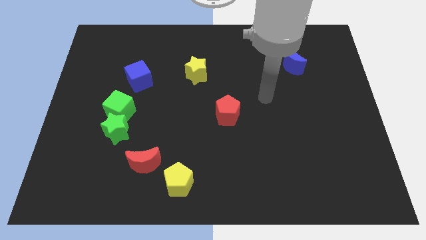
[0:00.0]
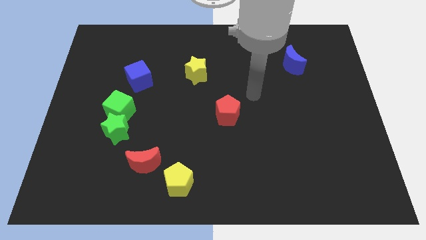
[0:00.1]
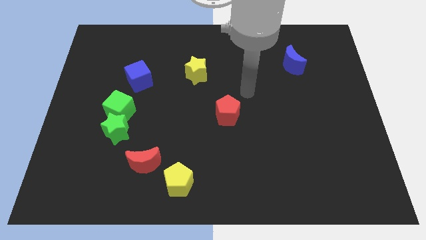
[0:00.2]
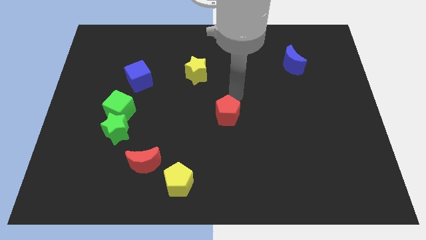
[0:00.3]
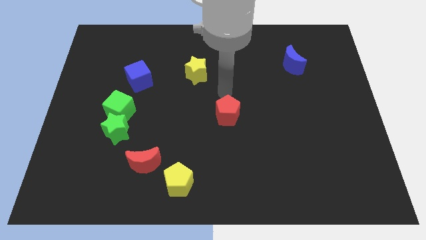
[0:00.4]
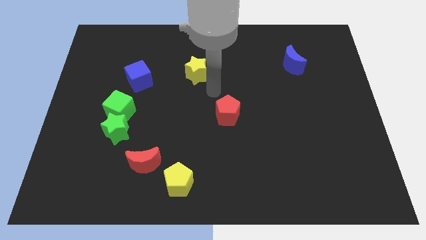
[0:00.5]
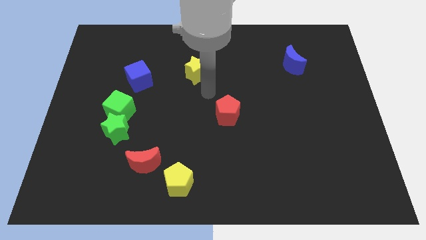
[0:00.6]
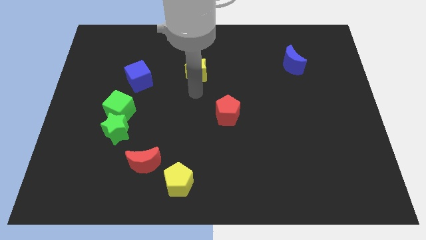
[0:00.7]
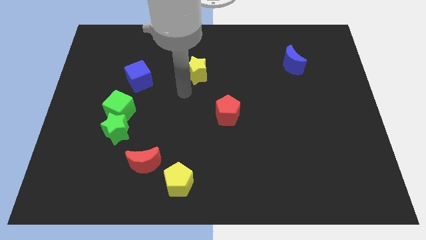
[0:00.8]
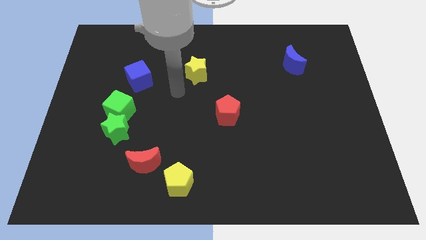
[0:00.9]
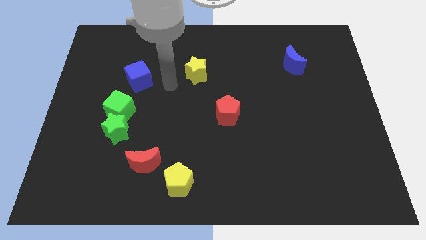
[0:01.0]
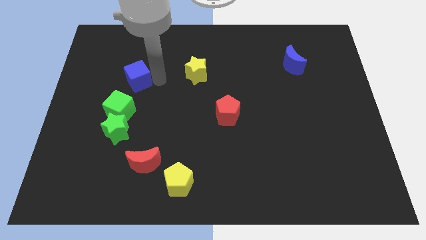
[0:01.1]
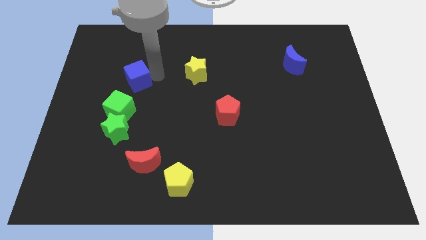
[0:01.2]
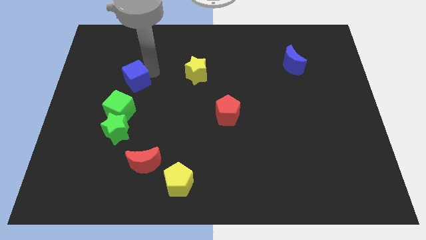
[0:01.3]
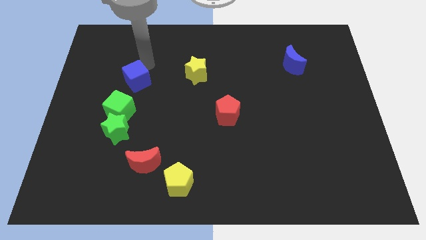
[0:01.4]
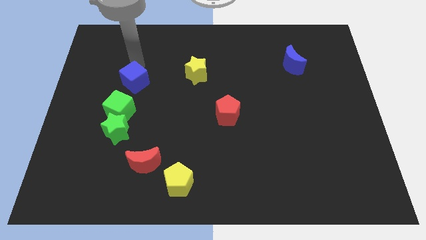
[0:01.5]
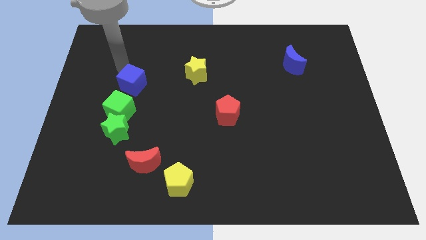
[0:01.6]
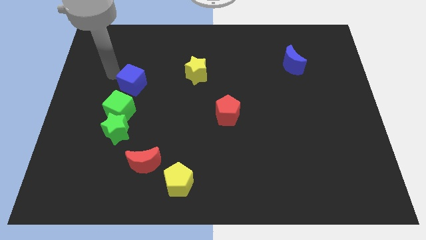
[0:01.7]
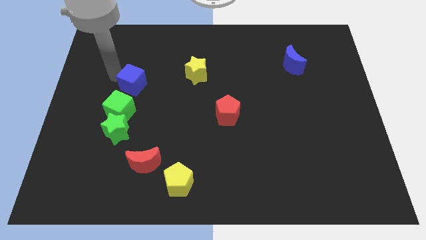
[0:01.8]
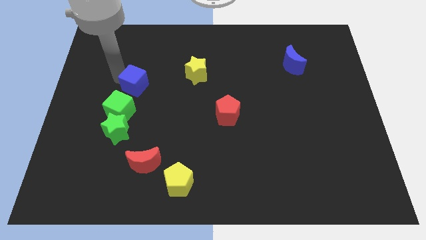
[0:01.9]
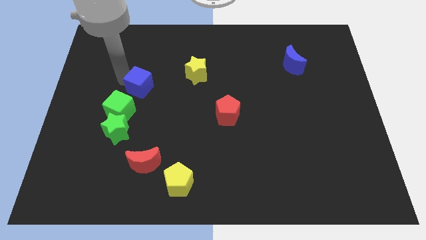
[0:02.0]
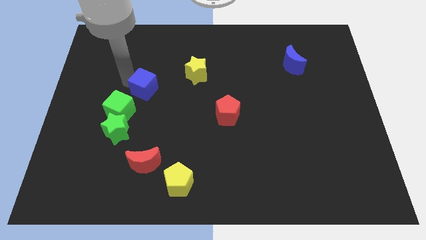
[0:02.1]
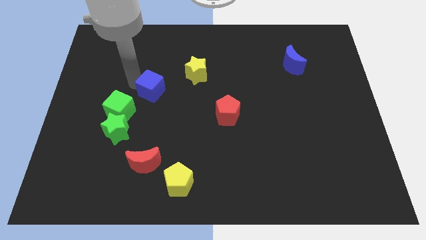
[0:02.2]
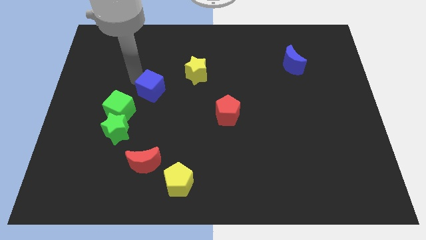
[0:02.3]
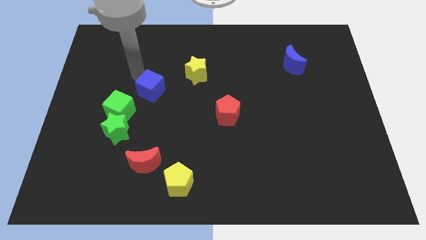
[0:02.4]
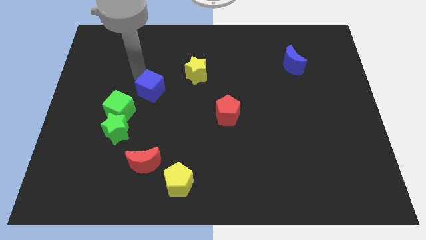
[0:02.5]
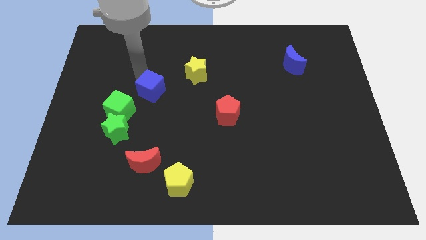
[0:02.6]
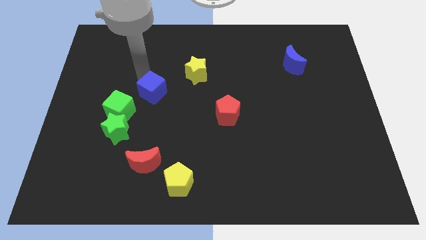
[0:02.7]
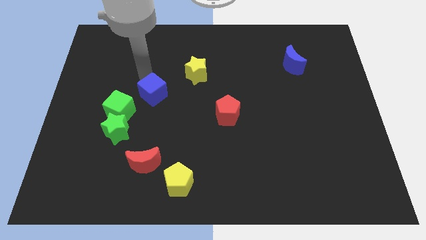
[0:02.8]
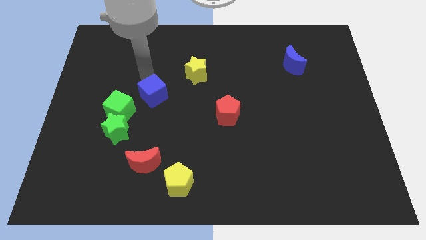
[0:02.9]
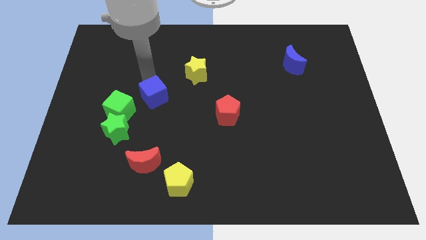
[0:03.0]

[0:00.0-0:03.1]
slide the blue cube down and then to the right a little

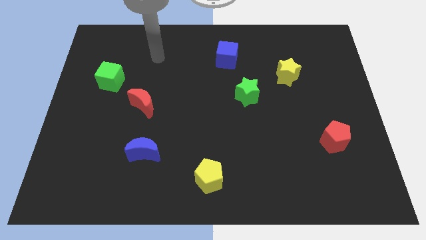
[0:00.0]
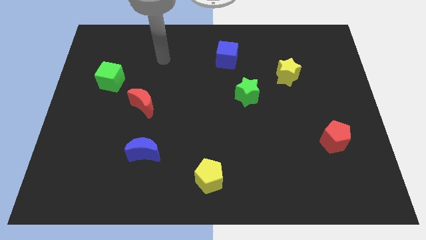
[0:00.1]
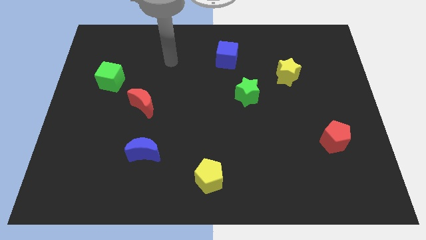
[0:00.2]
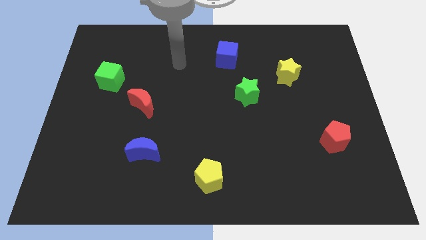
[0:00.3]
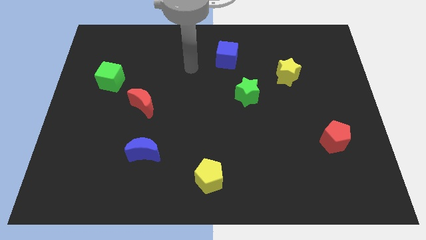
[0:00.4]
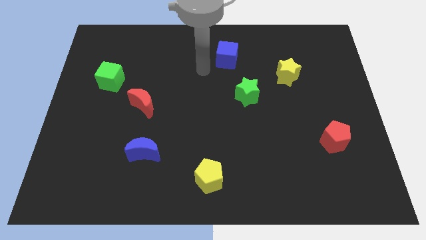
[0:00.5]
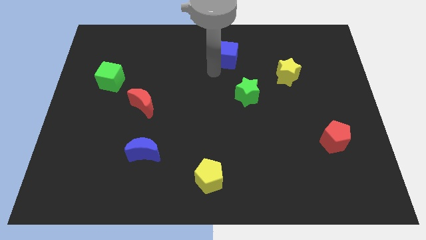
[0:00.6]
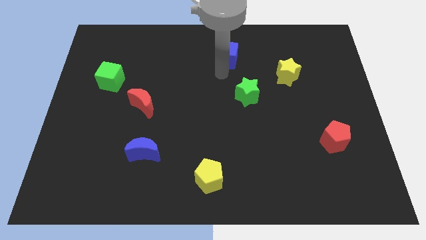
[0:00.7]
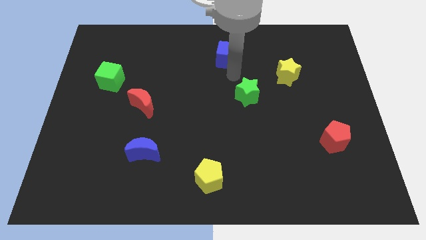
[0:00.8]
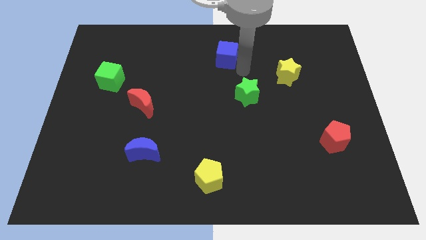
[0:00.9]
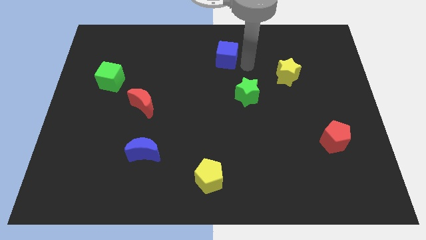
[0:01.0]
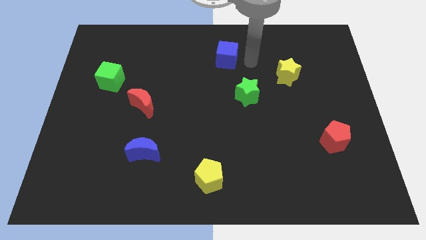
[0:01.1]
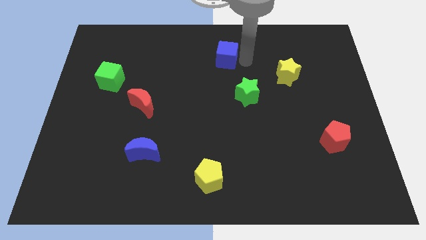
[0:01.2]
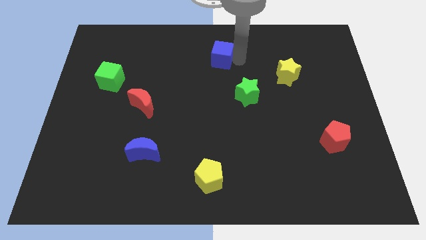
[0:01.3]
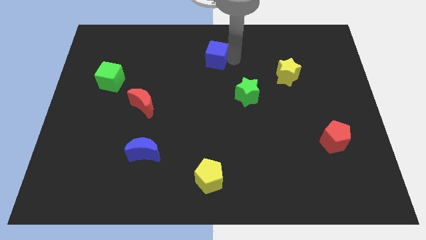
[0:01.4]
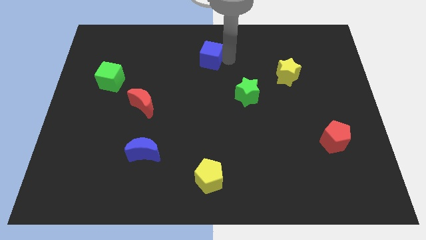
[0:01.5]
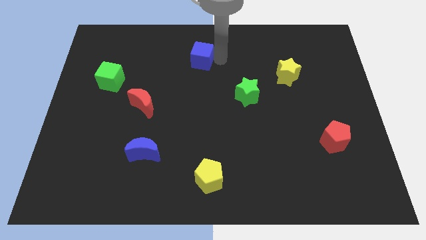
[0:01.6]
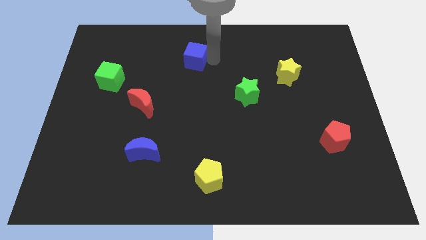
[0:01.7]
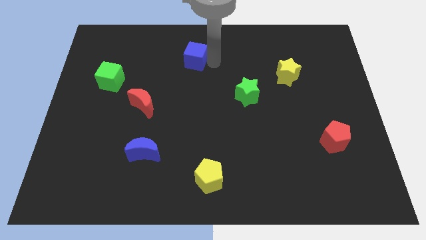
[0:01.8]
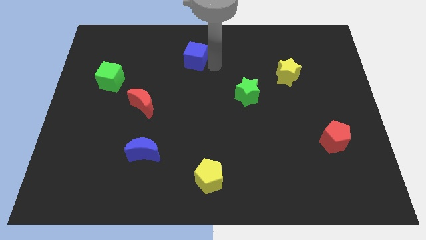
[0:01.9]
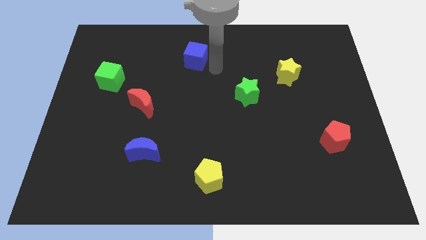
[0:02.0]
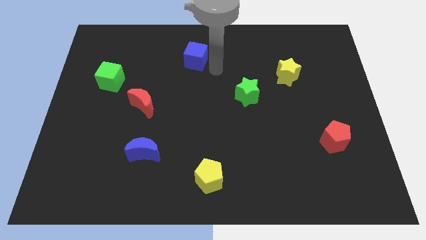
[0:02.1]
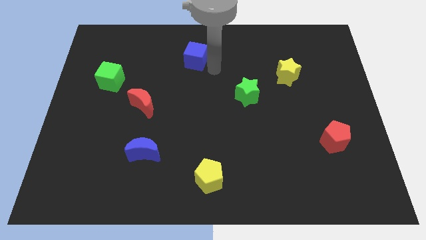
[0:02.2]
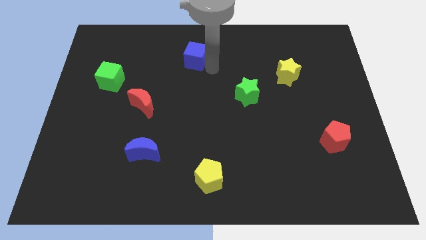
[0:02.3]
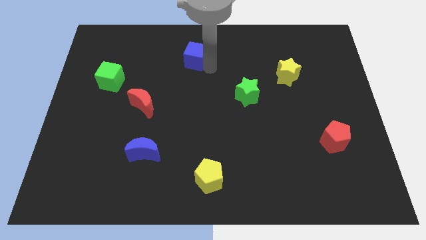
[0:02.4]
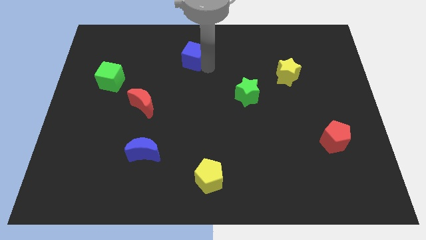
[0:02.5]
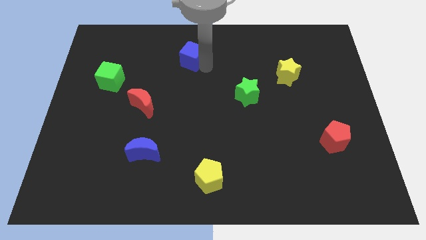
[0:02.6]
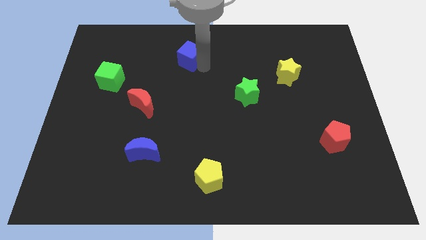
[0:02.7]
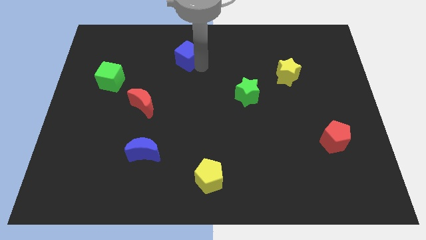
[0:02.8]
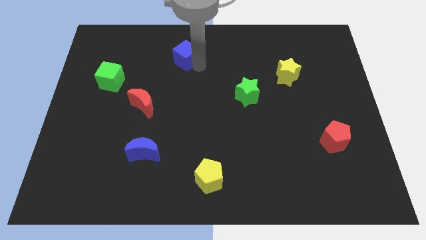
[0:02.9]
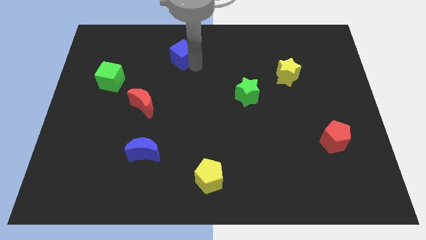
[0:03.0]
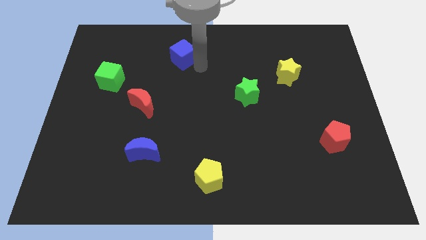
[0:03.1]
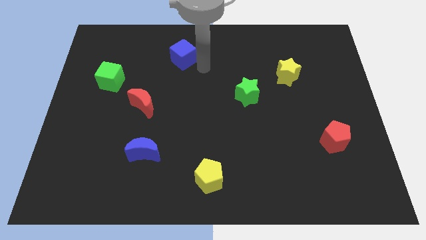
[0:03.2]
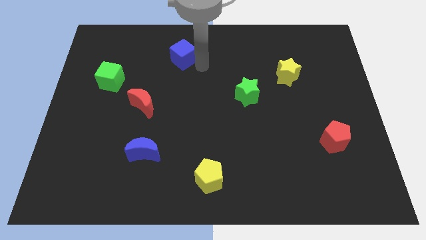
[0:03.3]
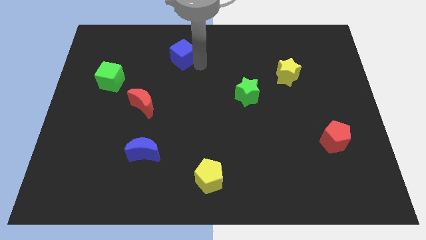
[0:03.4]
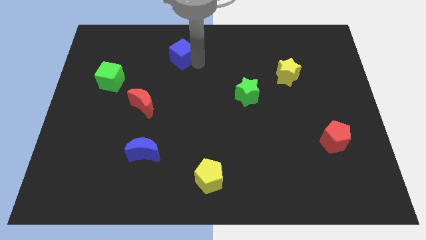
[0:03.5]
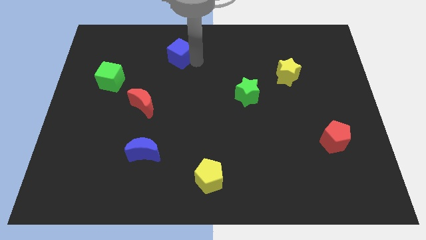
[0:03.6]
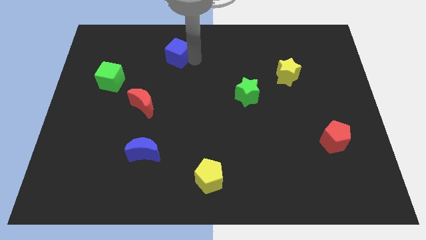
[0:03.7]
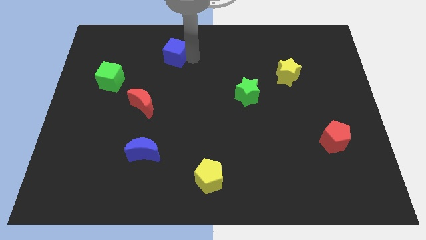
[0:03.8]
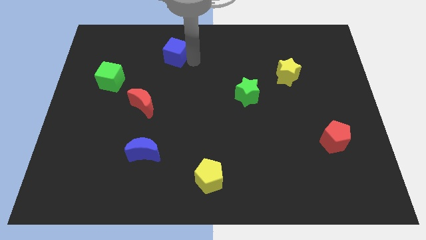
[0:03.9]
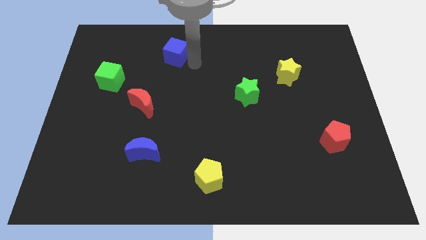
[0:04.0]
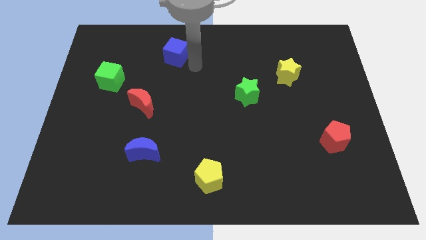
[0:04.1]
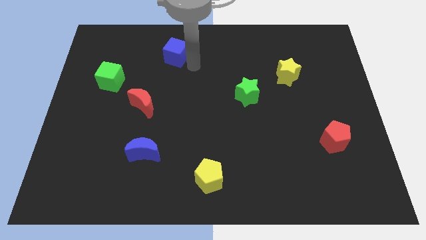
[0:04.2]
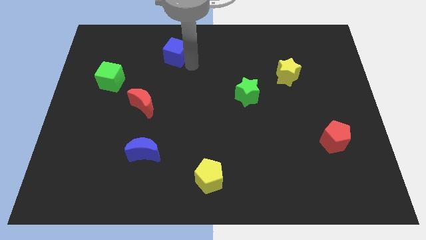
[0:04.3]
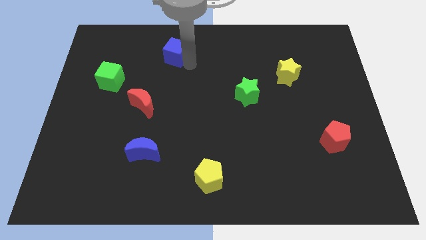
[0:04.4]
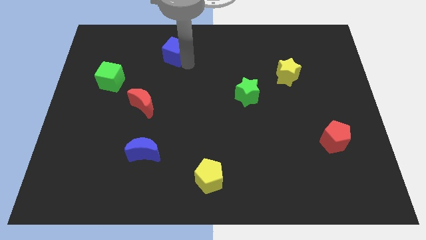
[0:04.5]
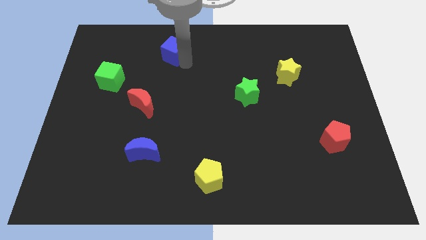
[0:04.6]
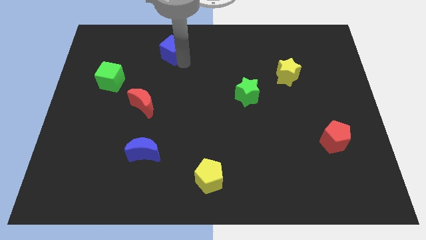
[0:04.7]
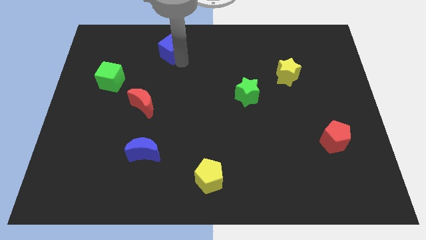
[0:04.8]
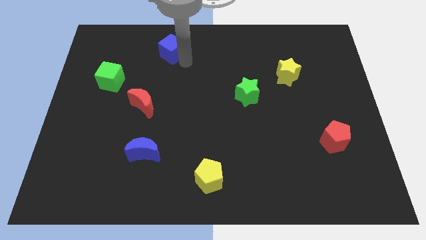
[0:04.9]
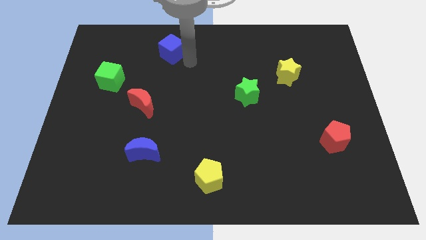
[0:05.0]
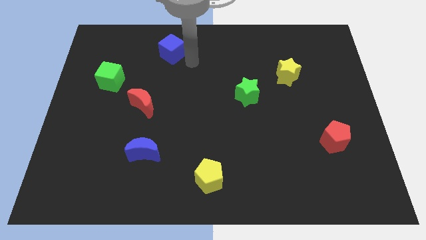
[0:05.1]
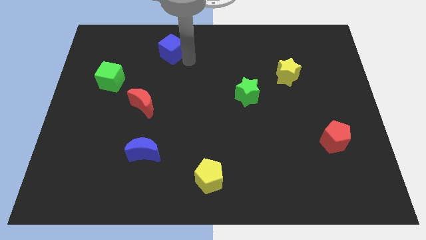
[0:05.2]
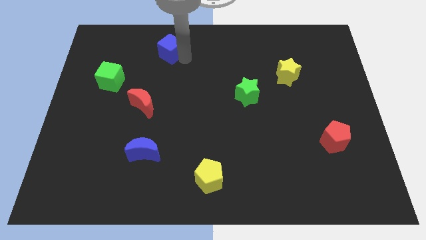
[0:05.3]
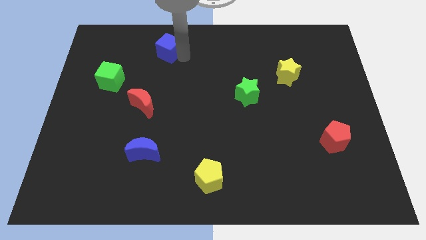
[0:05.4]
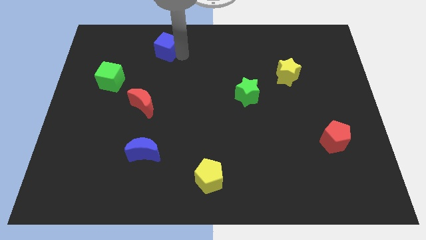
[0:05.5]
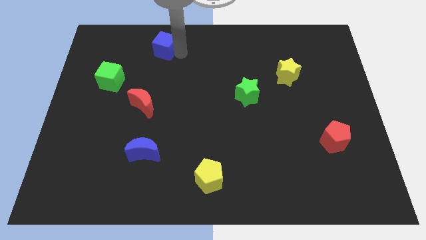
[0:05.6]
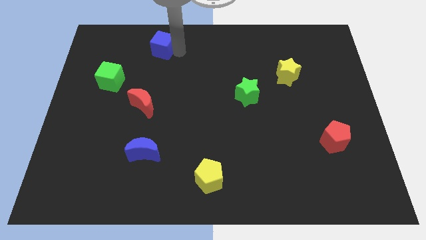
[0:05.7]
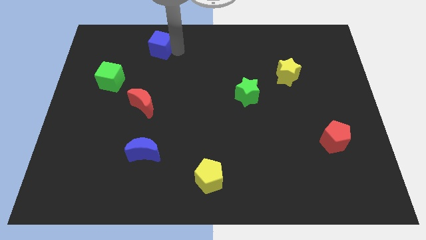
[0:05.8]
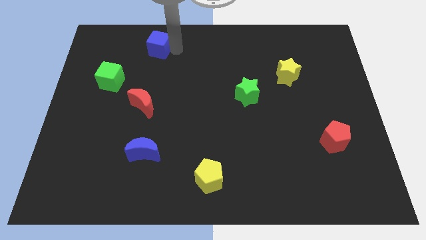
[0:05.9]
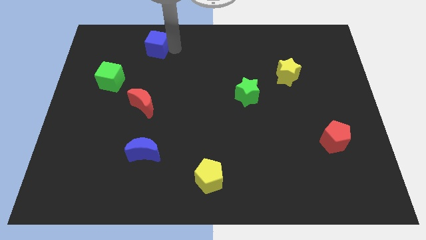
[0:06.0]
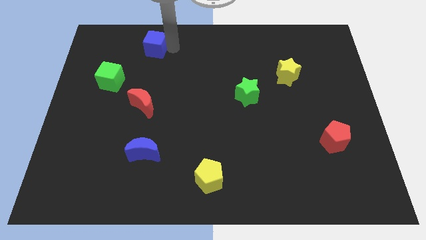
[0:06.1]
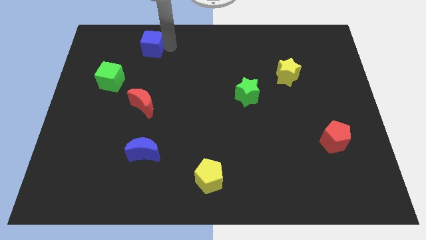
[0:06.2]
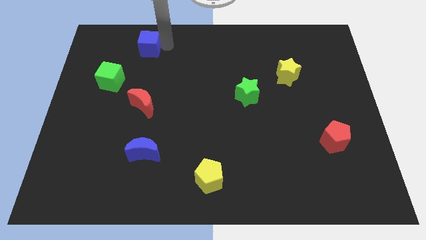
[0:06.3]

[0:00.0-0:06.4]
move the blue cube to the left
